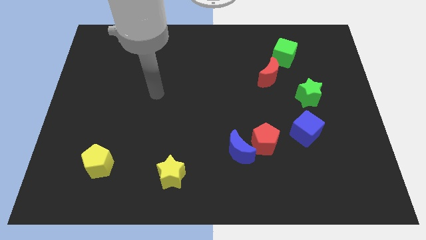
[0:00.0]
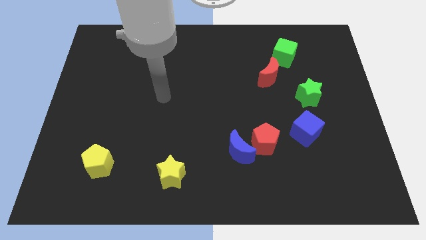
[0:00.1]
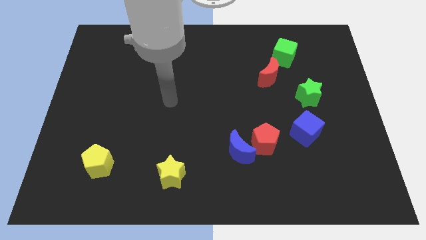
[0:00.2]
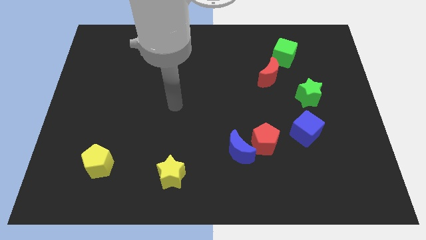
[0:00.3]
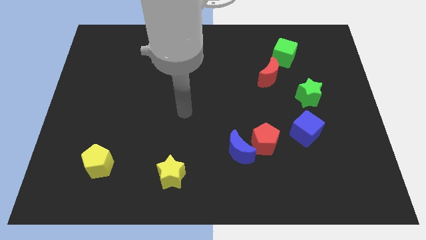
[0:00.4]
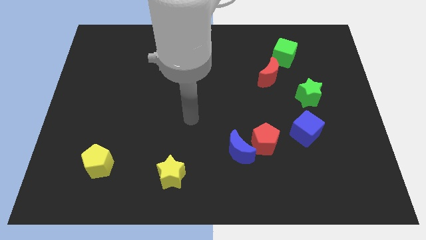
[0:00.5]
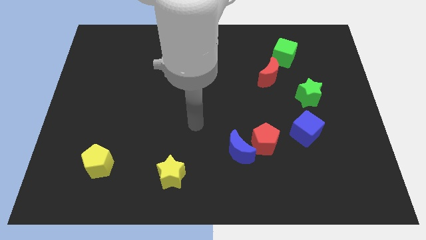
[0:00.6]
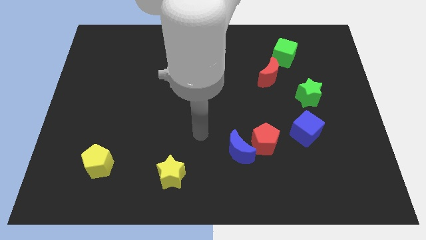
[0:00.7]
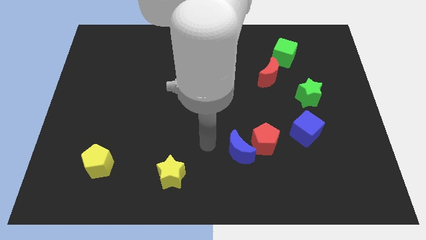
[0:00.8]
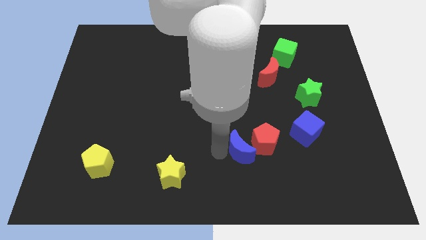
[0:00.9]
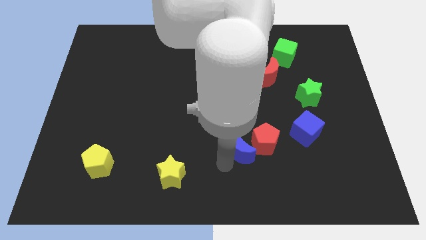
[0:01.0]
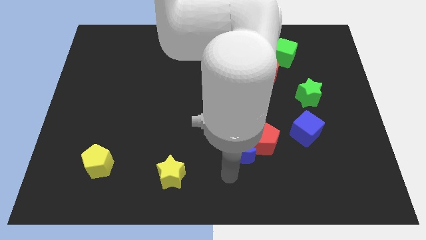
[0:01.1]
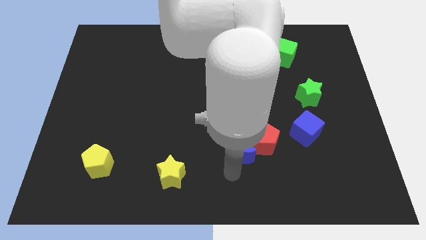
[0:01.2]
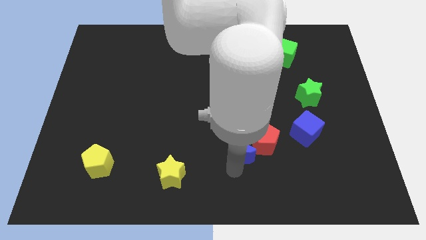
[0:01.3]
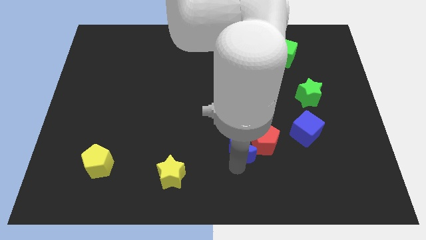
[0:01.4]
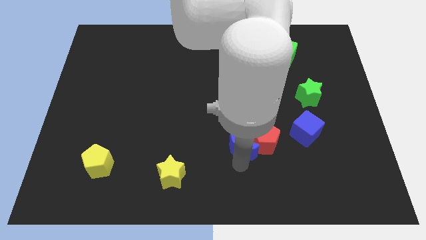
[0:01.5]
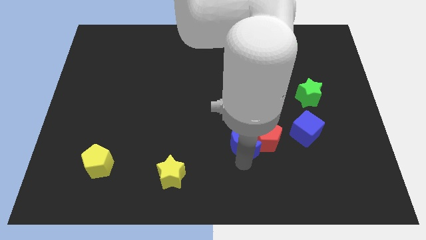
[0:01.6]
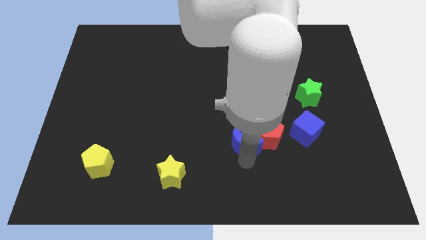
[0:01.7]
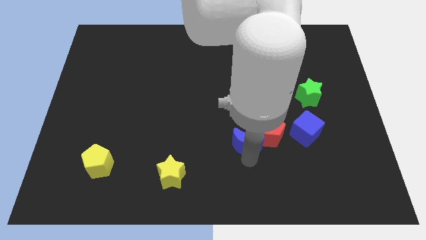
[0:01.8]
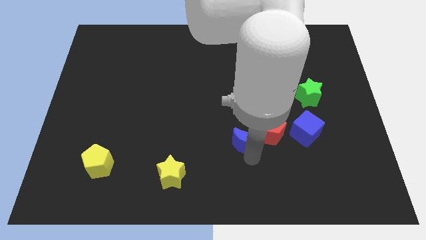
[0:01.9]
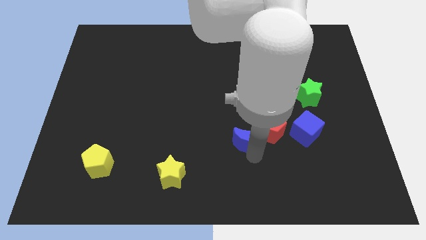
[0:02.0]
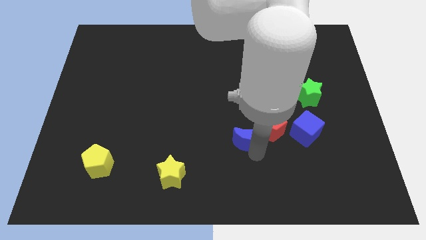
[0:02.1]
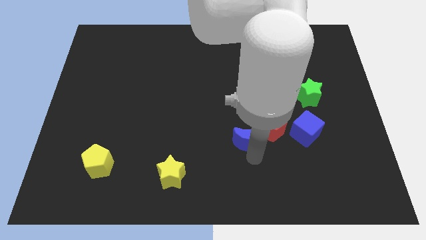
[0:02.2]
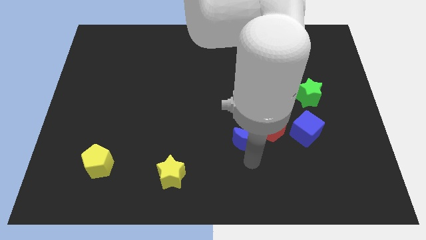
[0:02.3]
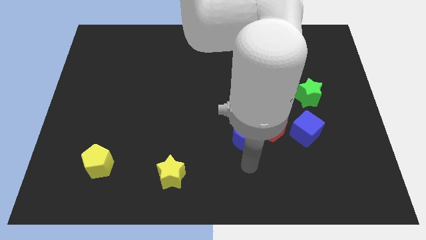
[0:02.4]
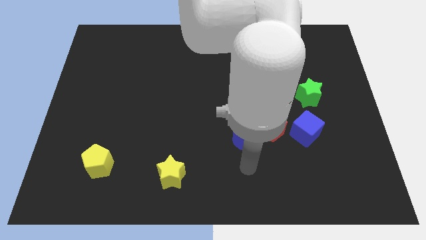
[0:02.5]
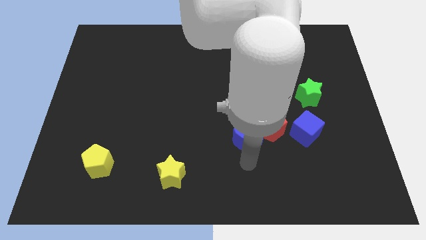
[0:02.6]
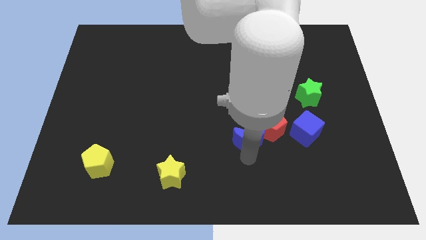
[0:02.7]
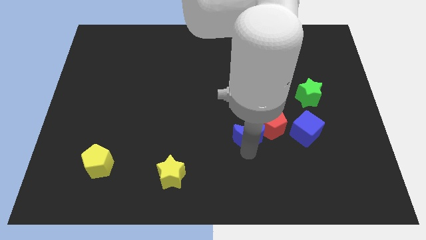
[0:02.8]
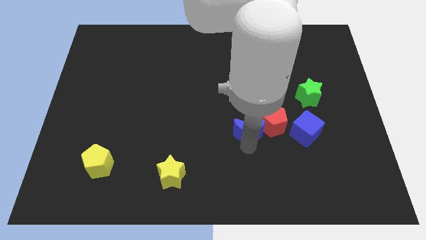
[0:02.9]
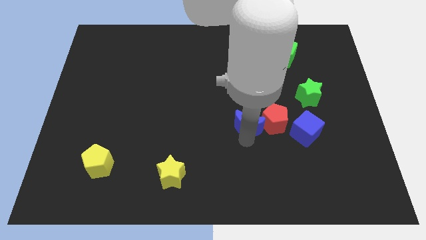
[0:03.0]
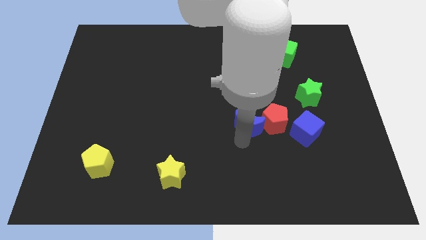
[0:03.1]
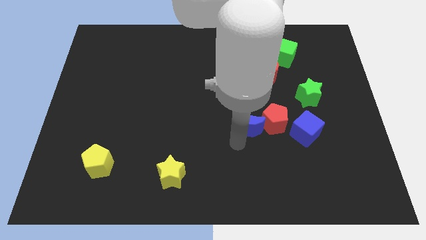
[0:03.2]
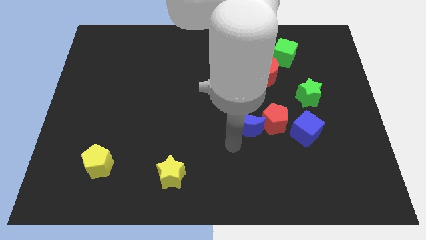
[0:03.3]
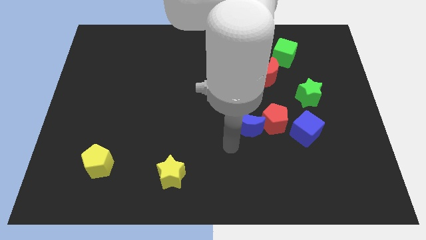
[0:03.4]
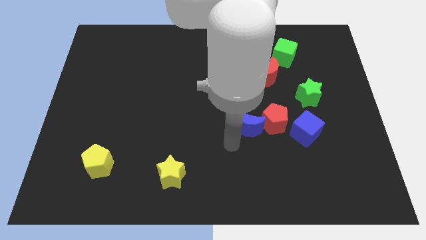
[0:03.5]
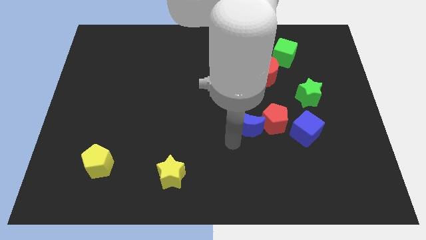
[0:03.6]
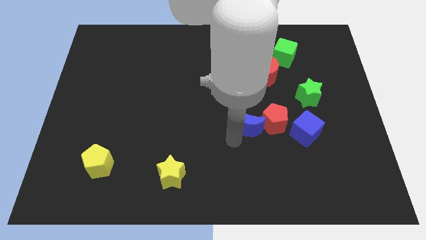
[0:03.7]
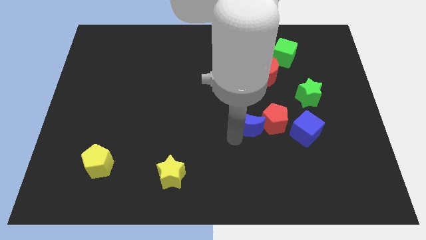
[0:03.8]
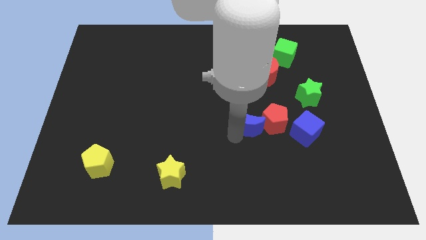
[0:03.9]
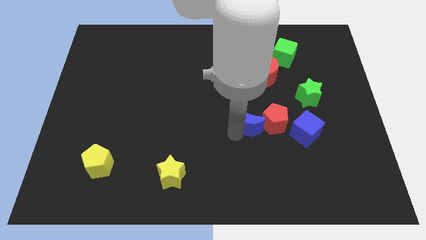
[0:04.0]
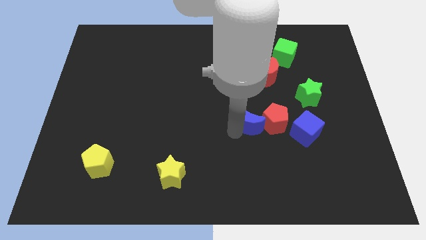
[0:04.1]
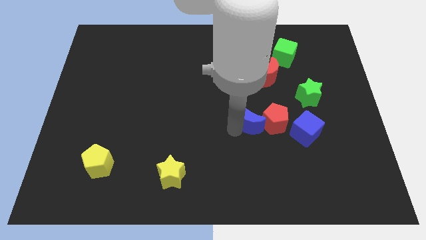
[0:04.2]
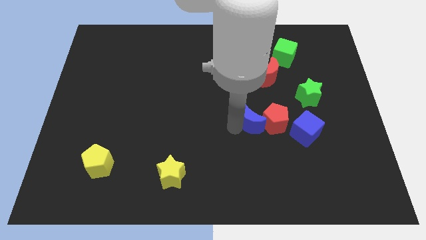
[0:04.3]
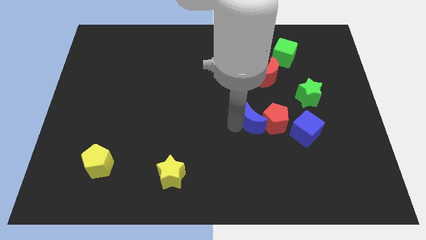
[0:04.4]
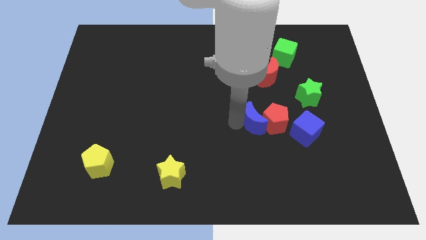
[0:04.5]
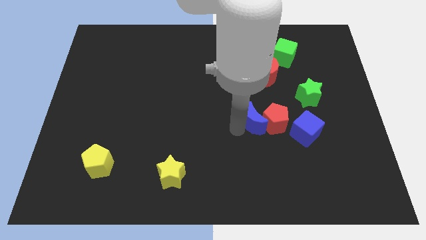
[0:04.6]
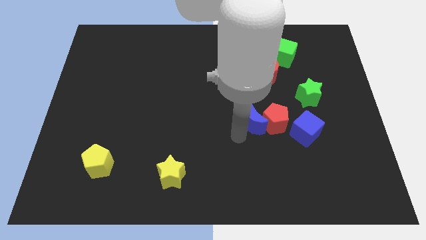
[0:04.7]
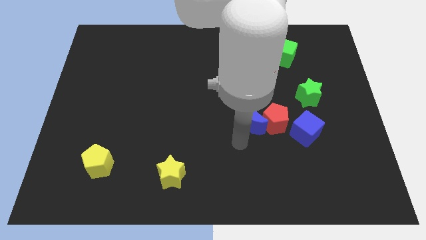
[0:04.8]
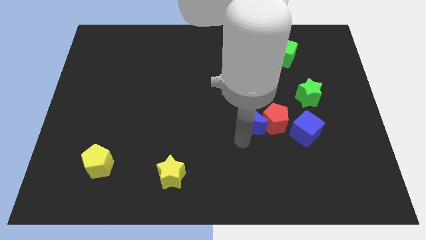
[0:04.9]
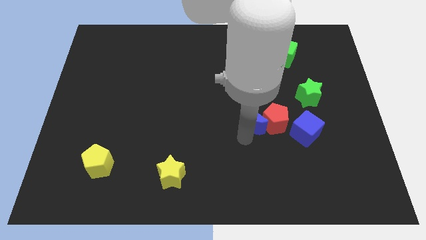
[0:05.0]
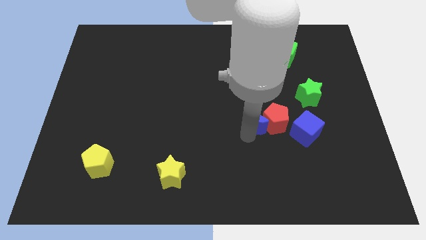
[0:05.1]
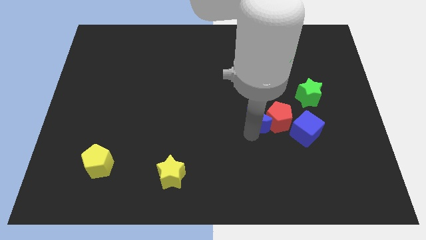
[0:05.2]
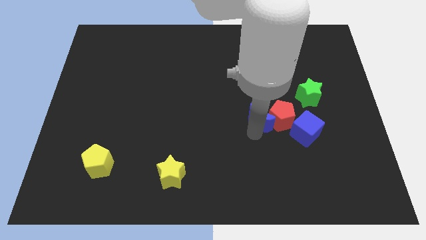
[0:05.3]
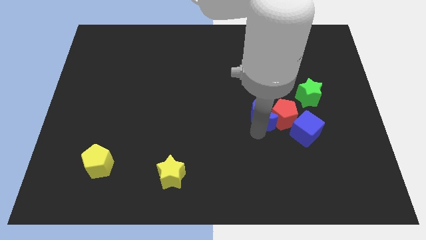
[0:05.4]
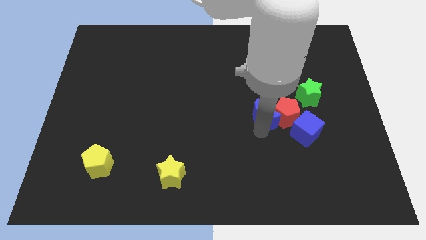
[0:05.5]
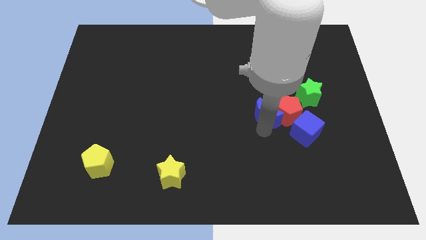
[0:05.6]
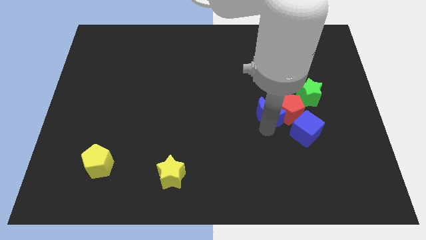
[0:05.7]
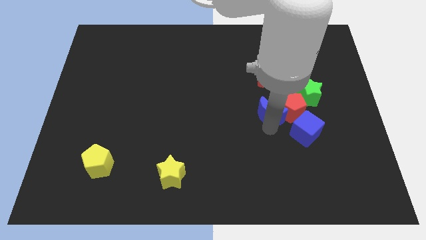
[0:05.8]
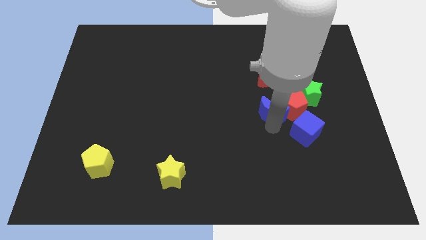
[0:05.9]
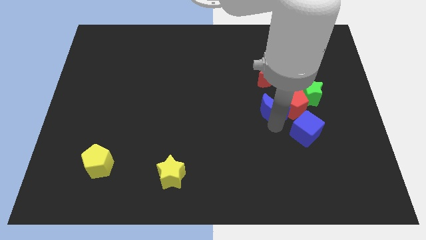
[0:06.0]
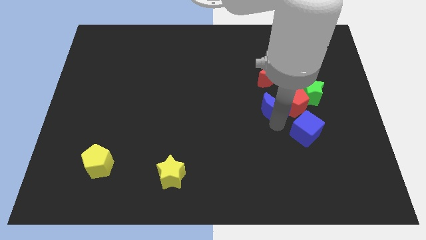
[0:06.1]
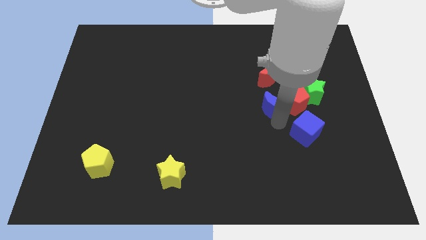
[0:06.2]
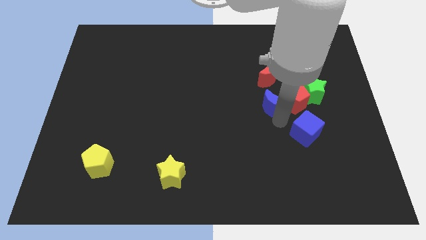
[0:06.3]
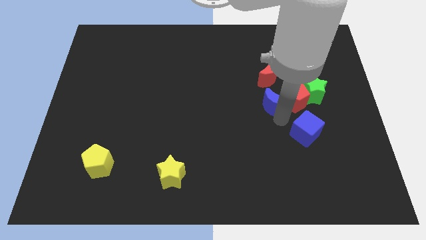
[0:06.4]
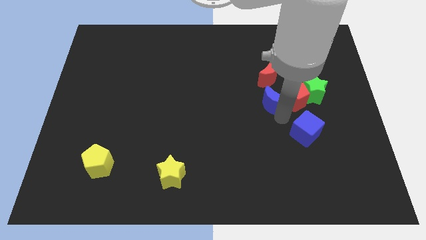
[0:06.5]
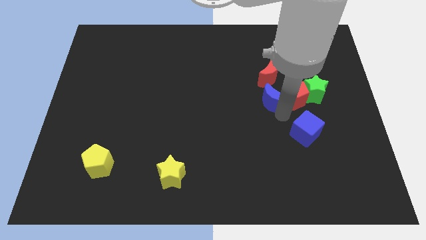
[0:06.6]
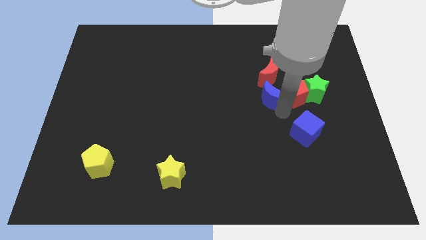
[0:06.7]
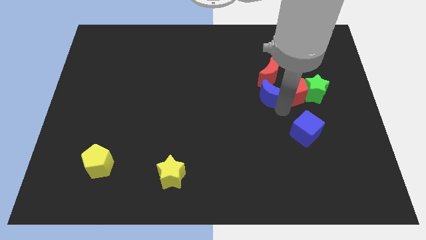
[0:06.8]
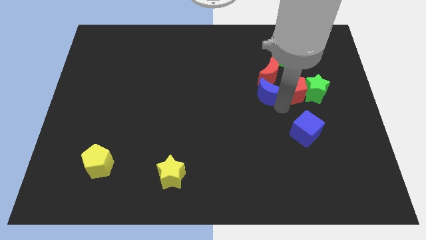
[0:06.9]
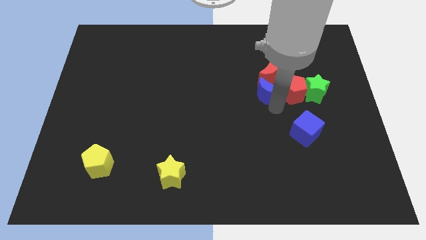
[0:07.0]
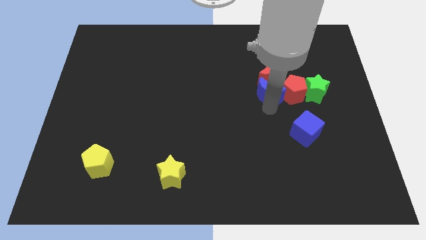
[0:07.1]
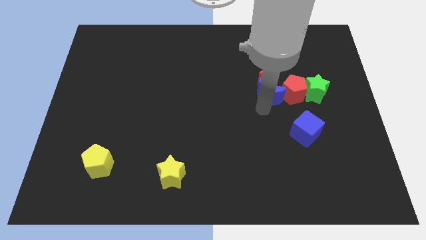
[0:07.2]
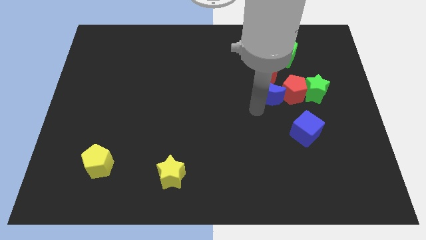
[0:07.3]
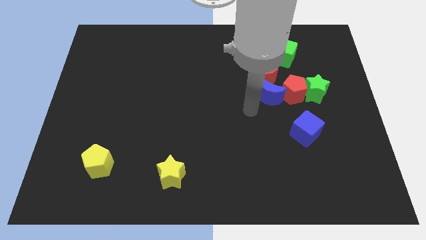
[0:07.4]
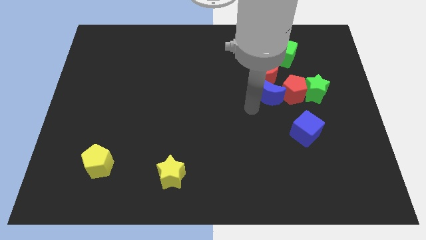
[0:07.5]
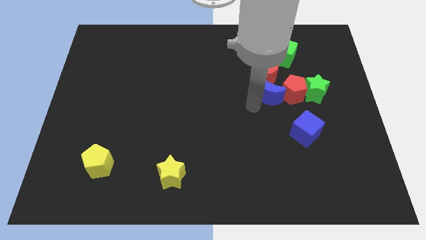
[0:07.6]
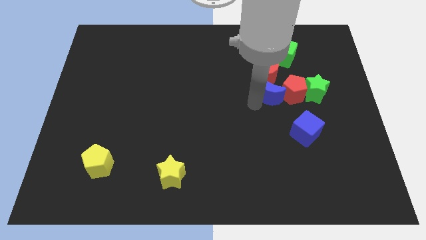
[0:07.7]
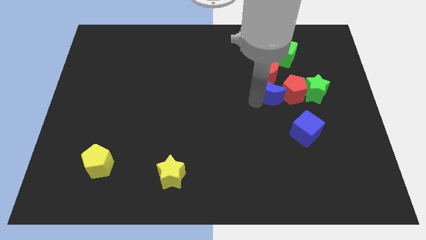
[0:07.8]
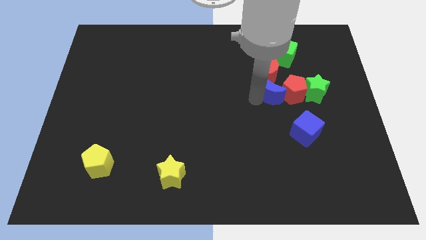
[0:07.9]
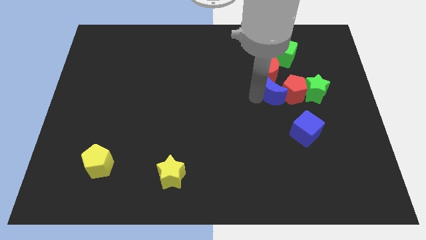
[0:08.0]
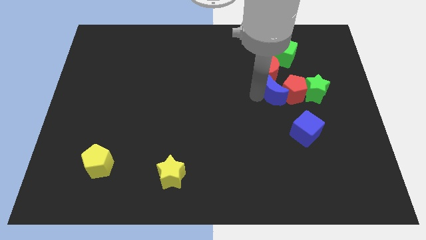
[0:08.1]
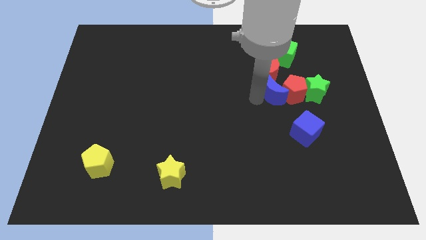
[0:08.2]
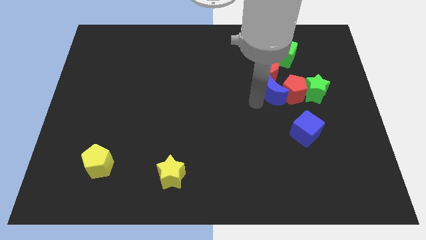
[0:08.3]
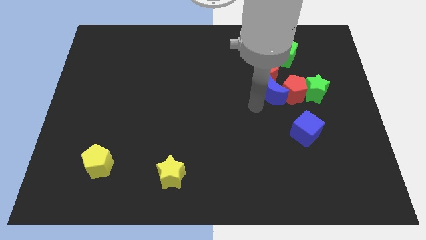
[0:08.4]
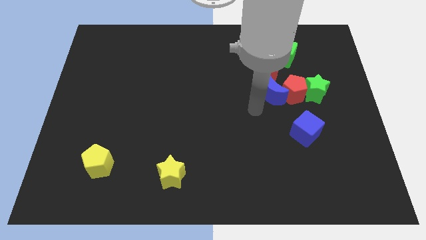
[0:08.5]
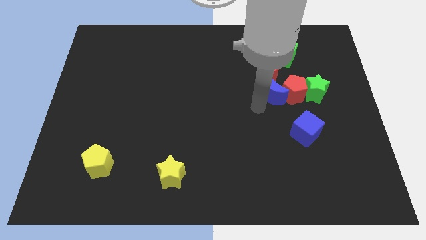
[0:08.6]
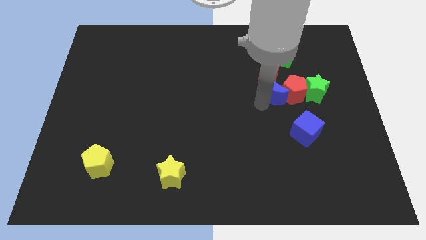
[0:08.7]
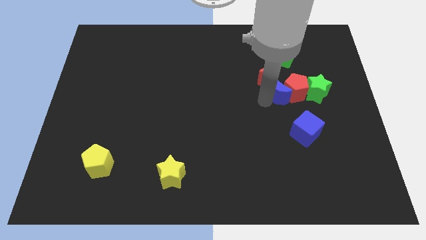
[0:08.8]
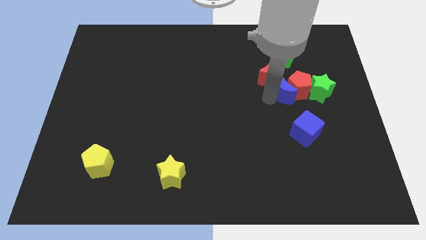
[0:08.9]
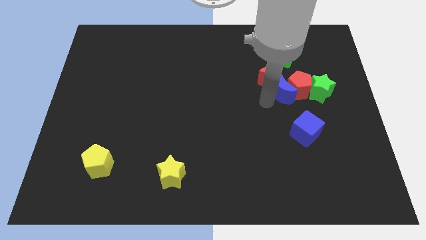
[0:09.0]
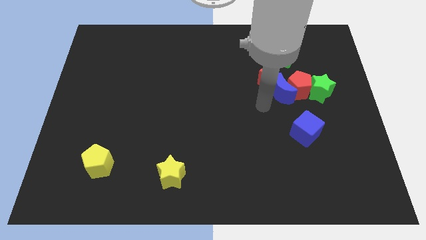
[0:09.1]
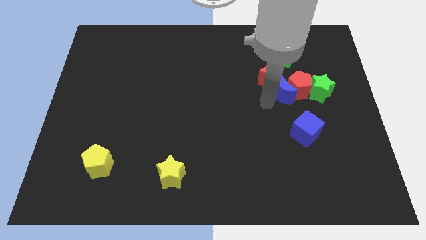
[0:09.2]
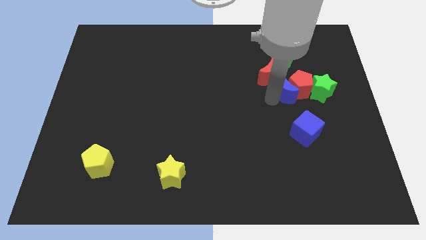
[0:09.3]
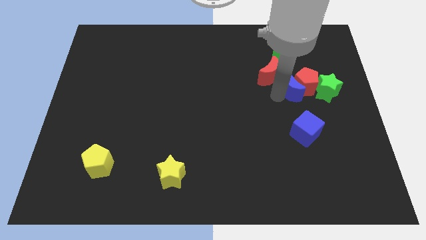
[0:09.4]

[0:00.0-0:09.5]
push the blue moon up and then right
